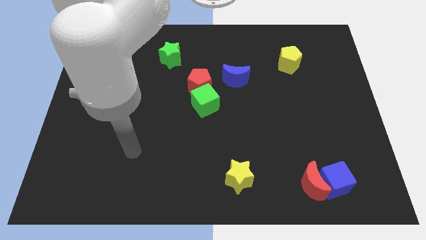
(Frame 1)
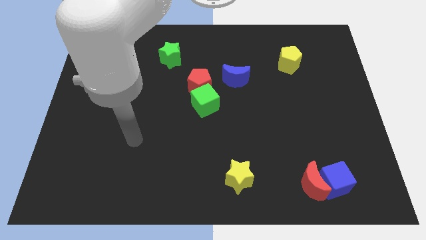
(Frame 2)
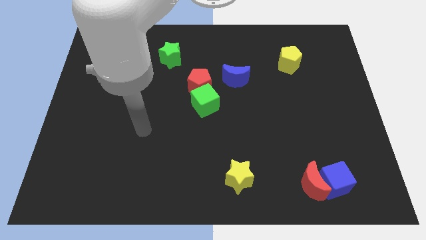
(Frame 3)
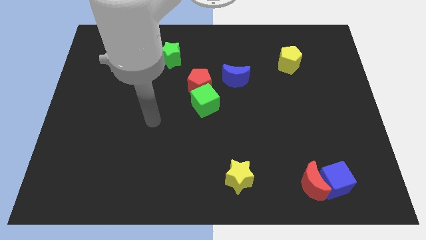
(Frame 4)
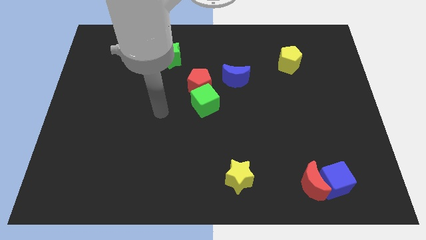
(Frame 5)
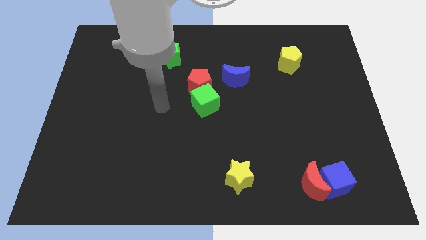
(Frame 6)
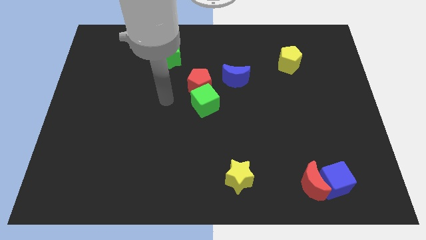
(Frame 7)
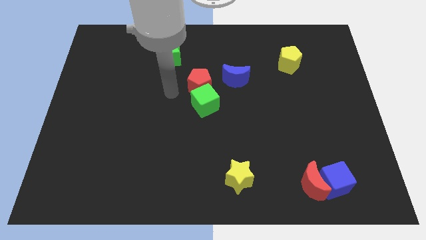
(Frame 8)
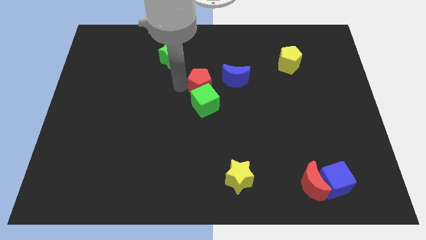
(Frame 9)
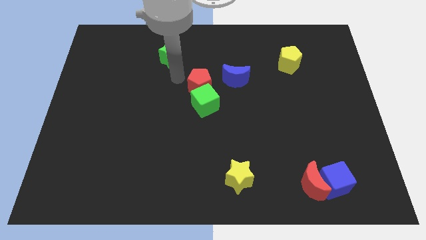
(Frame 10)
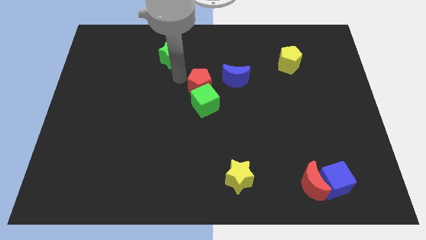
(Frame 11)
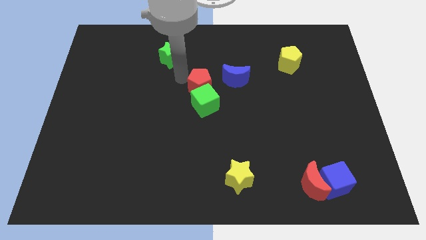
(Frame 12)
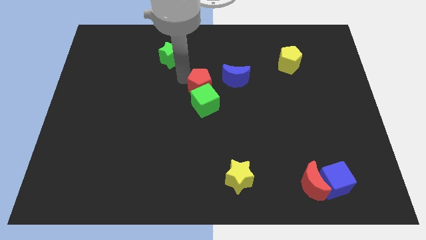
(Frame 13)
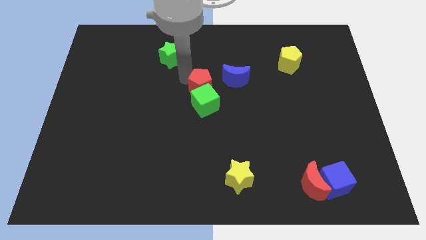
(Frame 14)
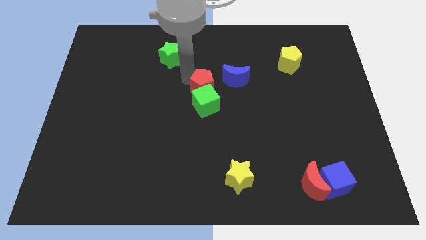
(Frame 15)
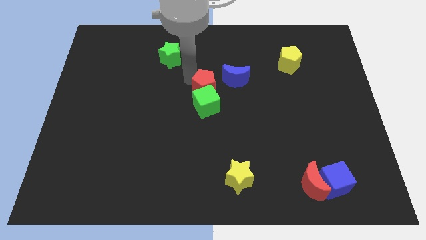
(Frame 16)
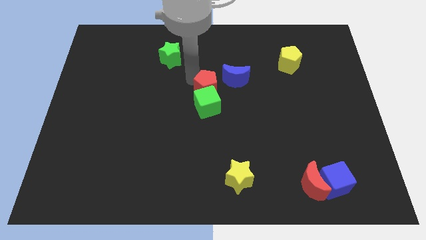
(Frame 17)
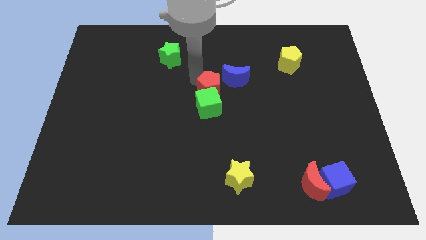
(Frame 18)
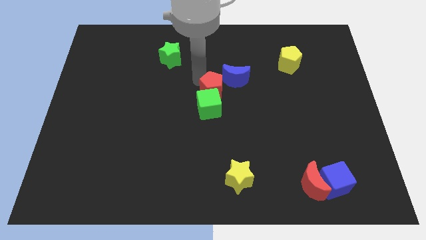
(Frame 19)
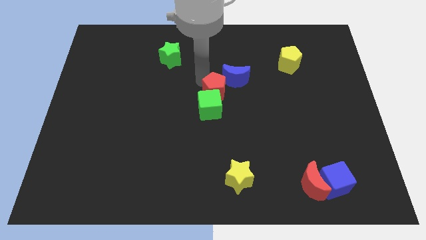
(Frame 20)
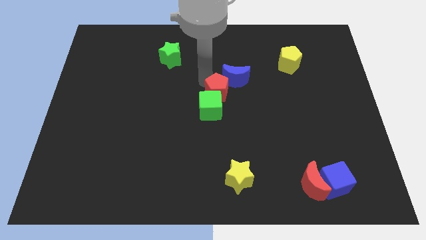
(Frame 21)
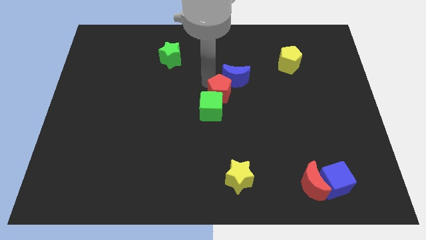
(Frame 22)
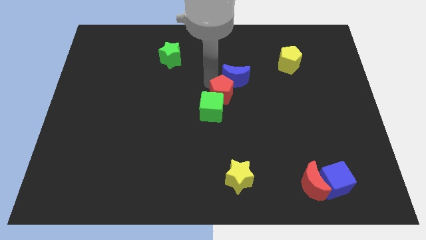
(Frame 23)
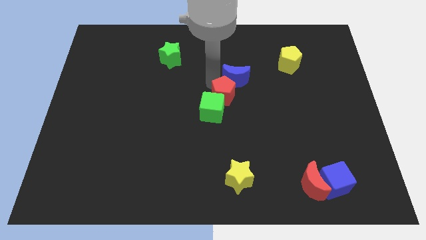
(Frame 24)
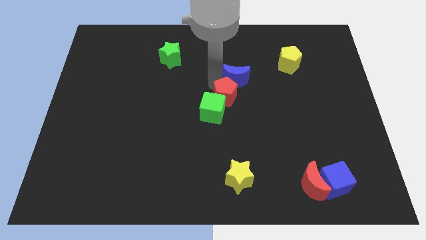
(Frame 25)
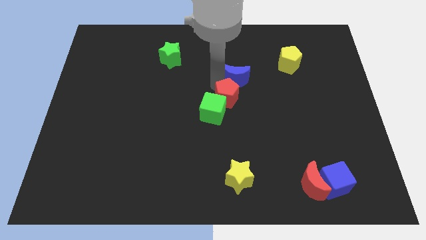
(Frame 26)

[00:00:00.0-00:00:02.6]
slide the red pentagon downwards and to the right diagonally slightly

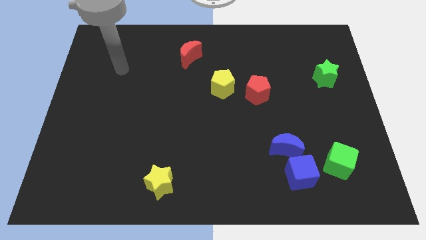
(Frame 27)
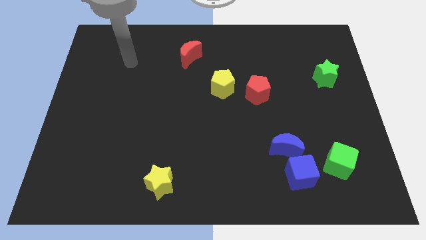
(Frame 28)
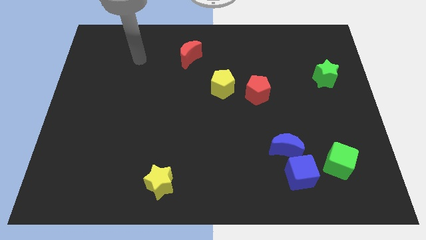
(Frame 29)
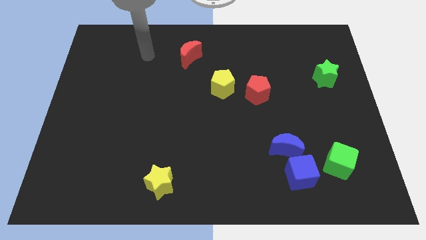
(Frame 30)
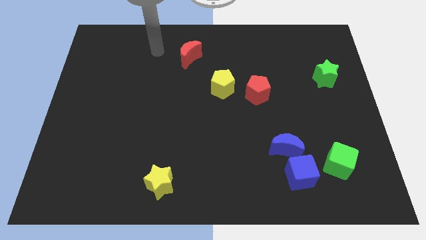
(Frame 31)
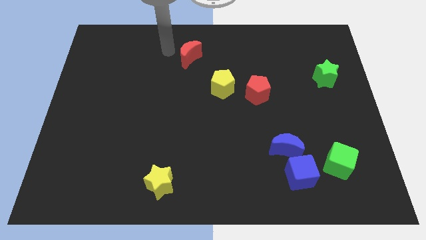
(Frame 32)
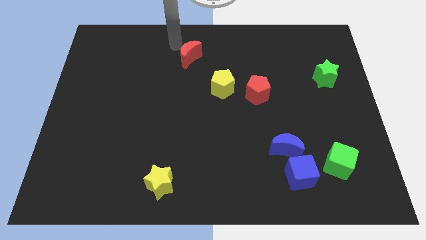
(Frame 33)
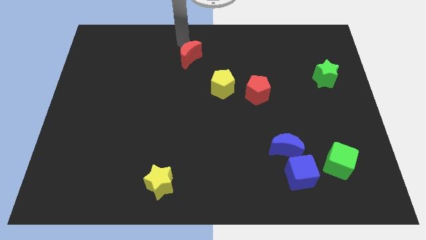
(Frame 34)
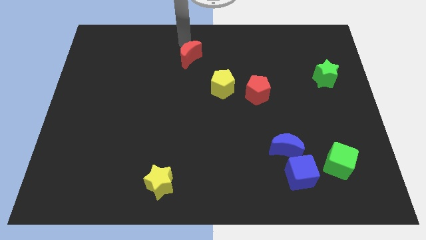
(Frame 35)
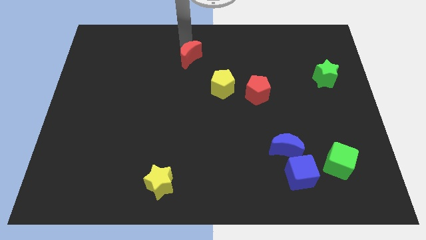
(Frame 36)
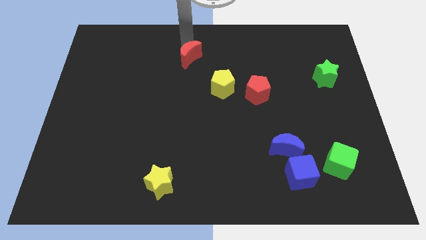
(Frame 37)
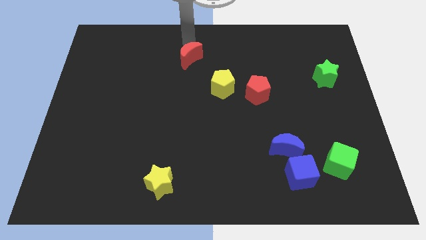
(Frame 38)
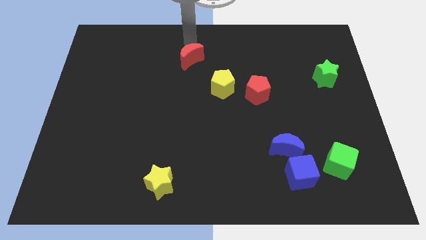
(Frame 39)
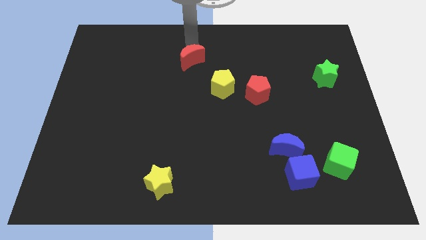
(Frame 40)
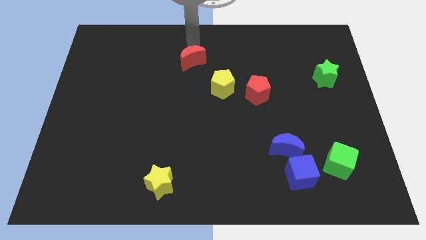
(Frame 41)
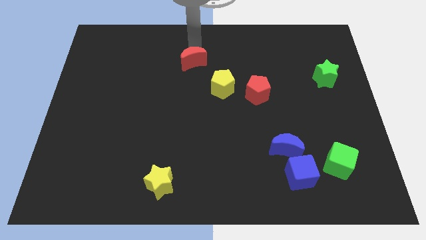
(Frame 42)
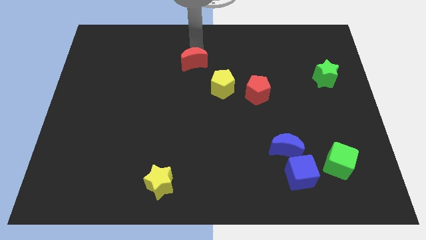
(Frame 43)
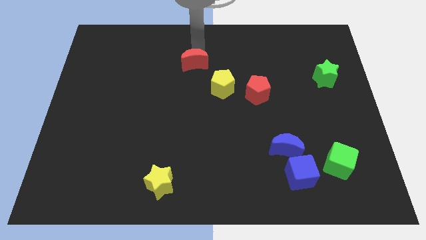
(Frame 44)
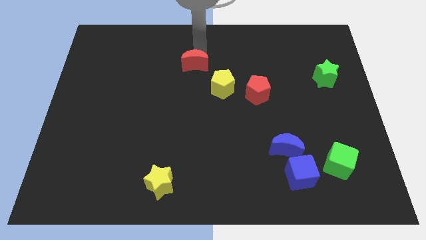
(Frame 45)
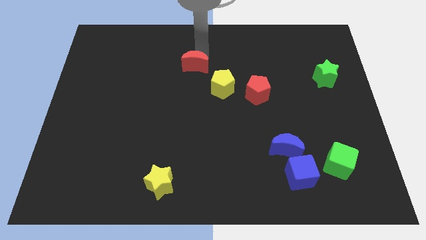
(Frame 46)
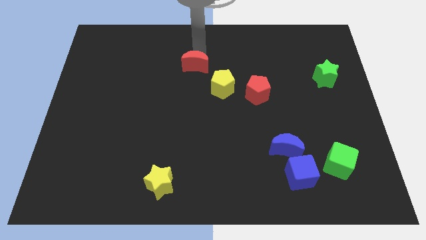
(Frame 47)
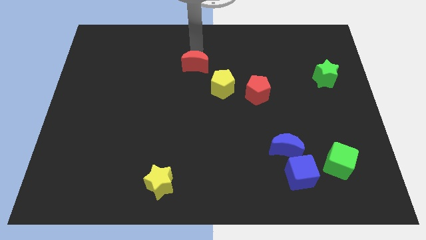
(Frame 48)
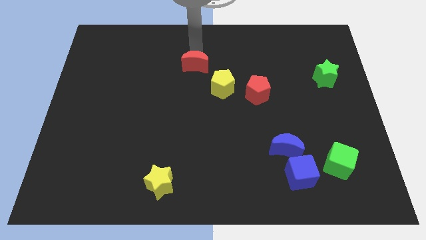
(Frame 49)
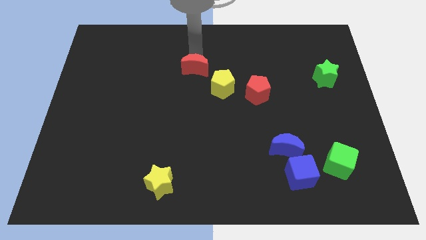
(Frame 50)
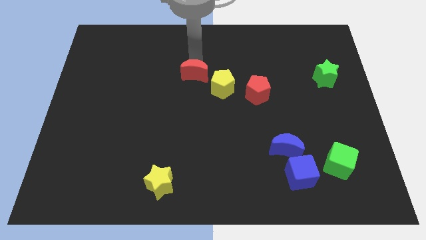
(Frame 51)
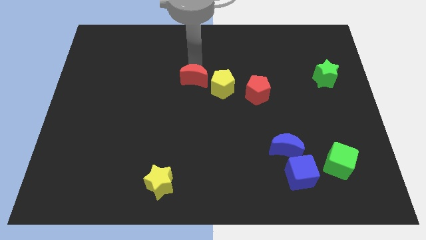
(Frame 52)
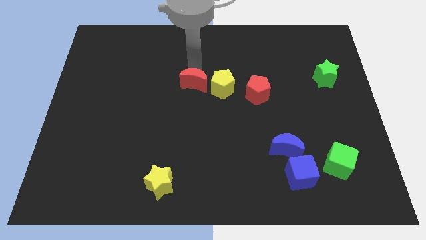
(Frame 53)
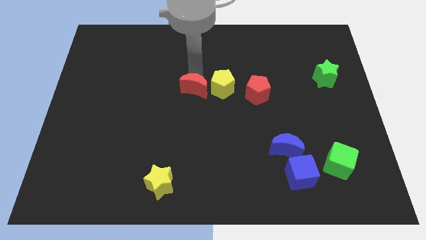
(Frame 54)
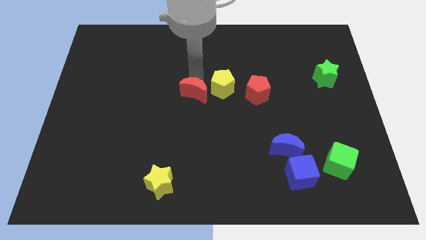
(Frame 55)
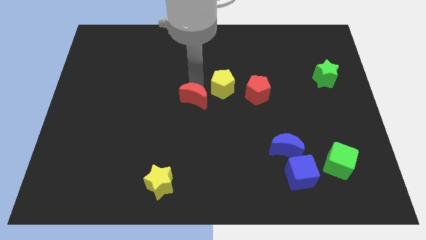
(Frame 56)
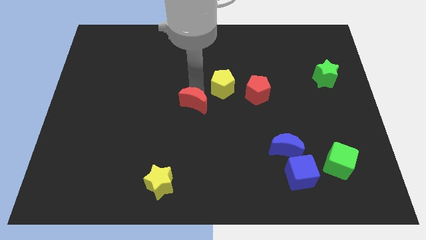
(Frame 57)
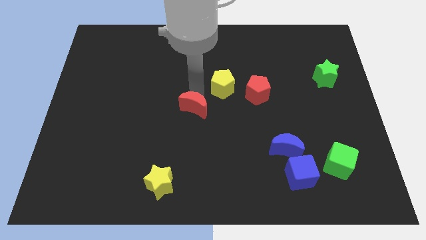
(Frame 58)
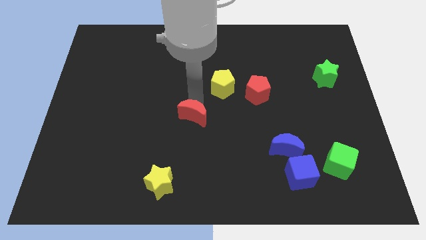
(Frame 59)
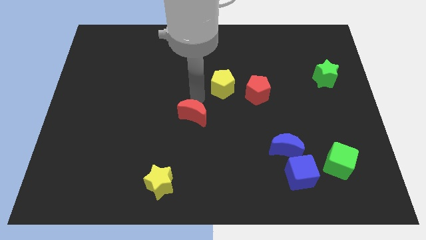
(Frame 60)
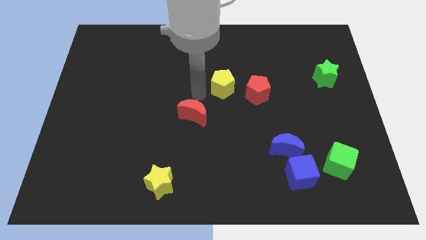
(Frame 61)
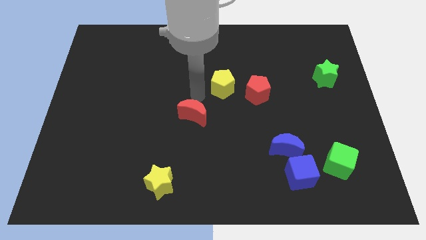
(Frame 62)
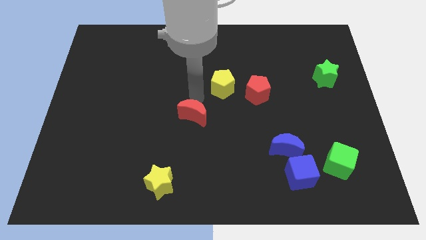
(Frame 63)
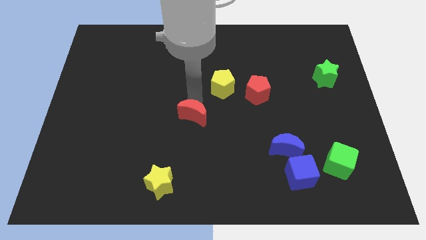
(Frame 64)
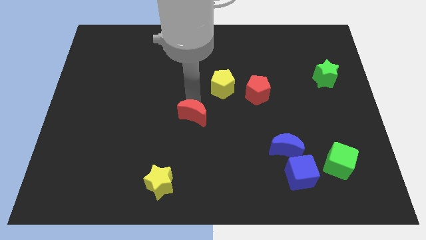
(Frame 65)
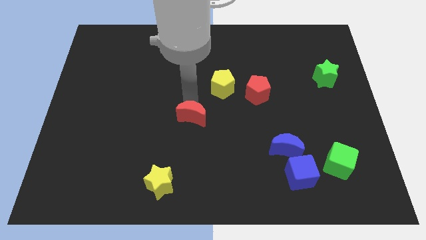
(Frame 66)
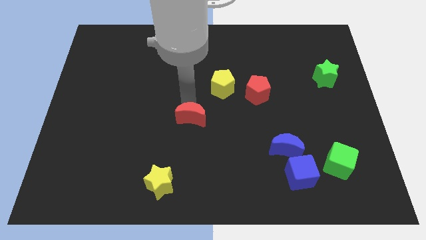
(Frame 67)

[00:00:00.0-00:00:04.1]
move the red moon down

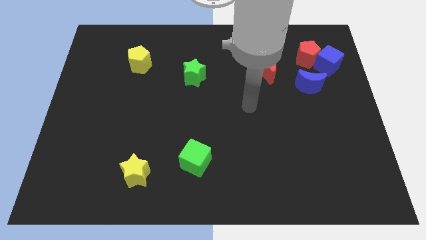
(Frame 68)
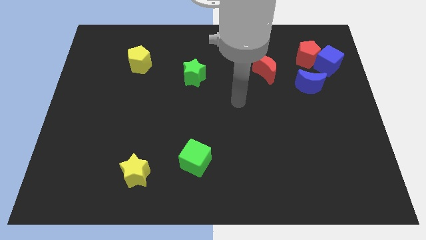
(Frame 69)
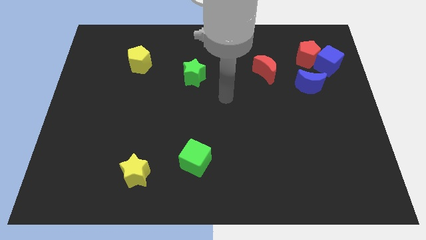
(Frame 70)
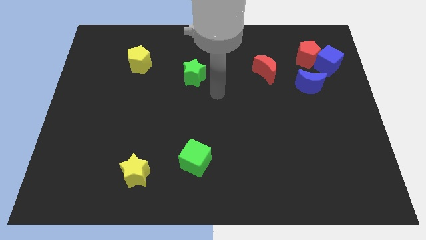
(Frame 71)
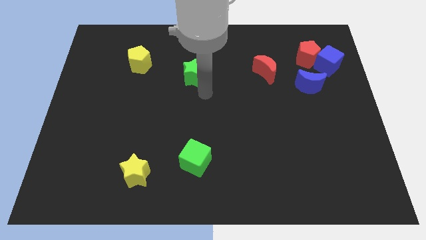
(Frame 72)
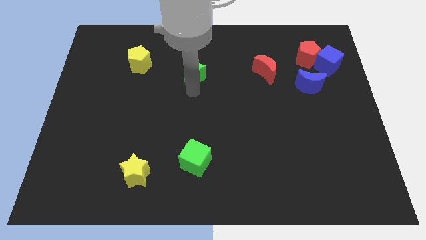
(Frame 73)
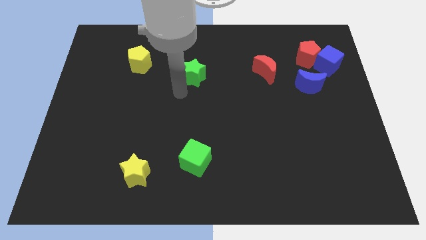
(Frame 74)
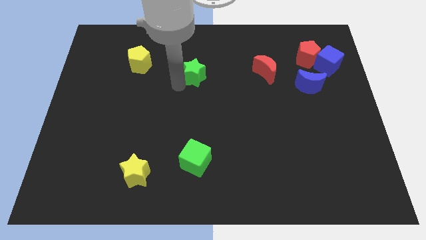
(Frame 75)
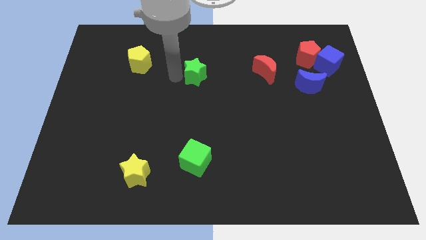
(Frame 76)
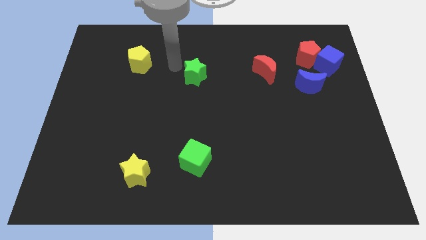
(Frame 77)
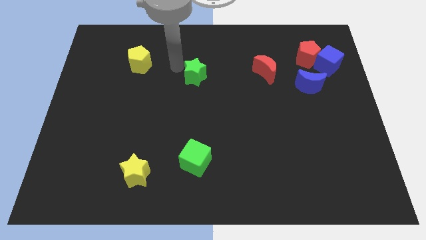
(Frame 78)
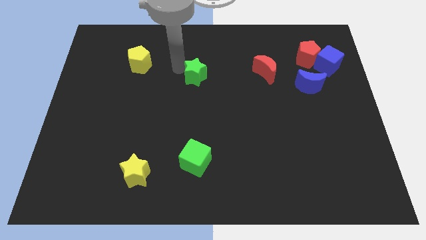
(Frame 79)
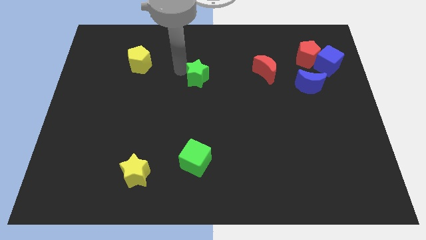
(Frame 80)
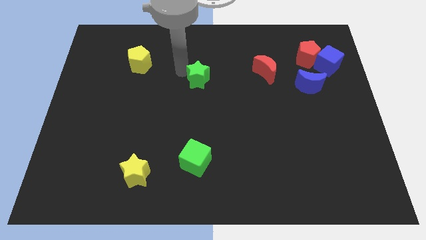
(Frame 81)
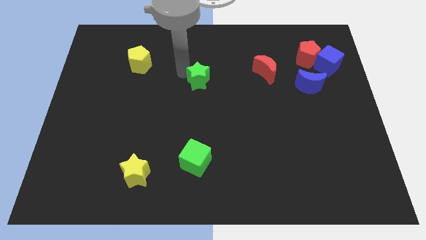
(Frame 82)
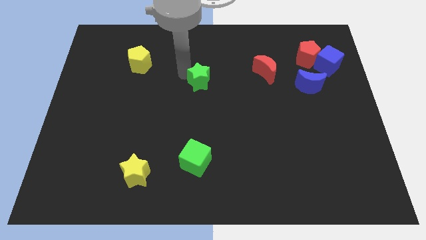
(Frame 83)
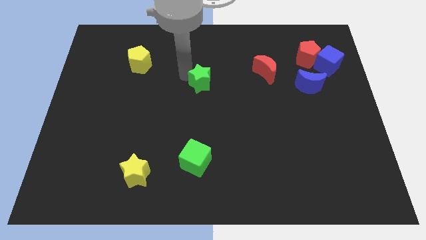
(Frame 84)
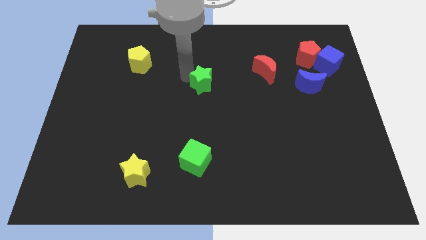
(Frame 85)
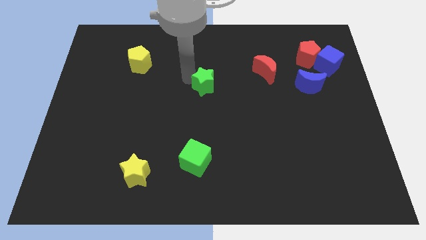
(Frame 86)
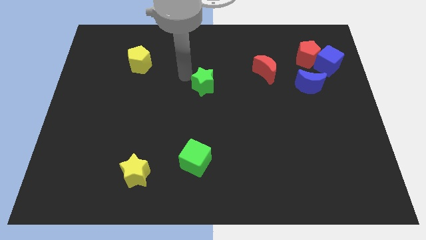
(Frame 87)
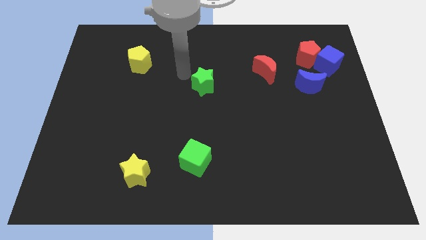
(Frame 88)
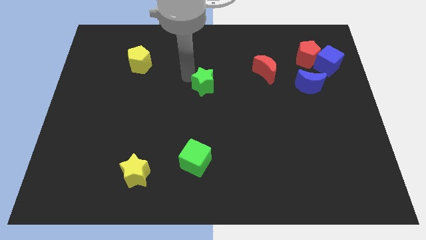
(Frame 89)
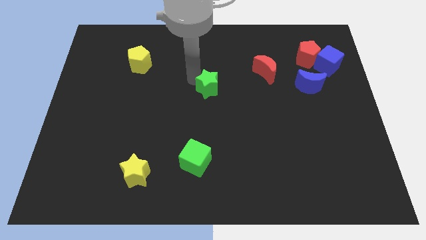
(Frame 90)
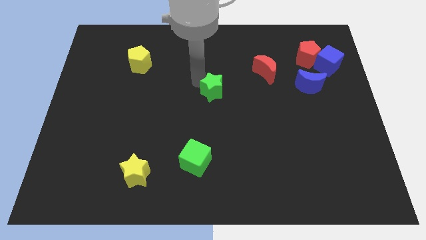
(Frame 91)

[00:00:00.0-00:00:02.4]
slightly push the green star diagonally down and right
